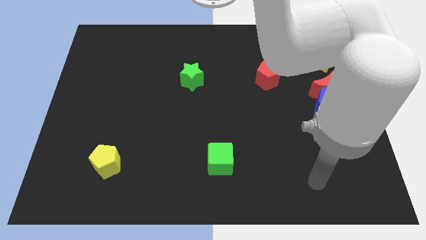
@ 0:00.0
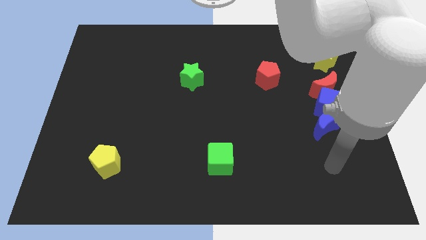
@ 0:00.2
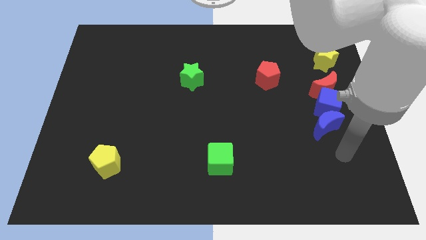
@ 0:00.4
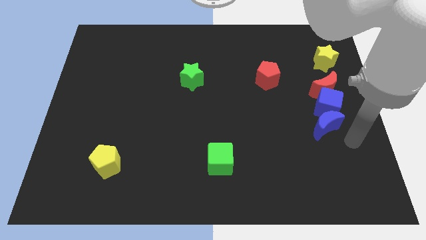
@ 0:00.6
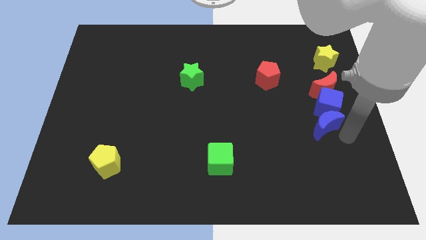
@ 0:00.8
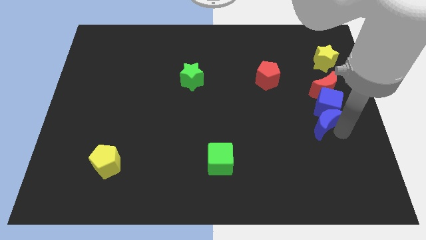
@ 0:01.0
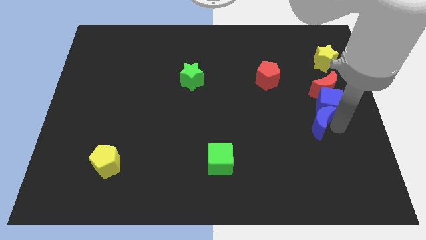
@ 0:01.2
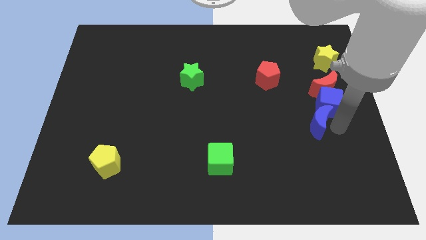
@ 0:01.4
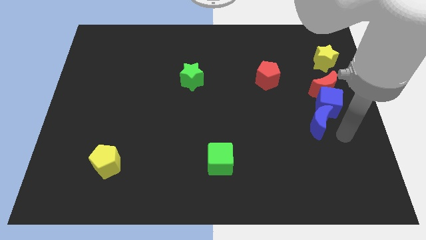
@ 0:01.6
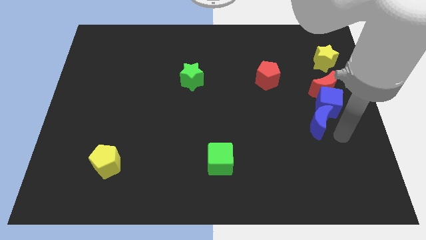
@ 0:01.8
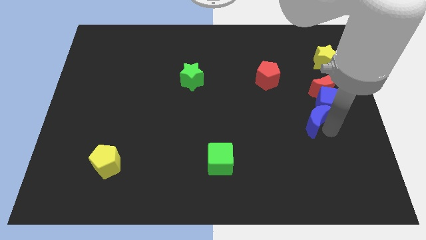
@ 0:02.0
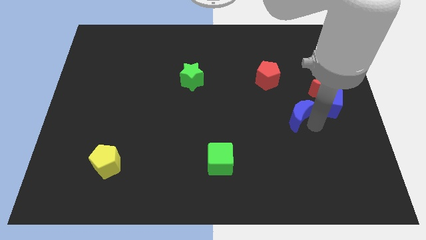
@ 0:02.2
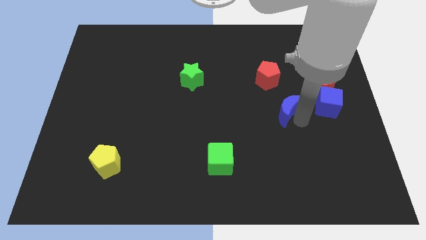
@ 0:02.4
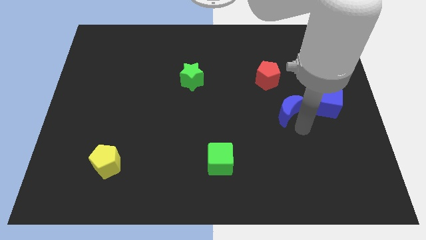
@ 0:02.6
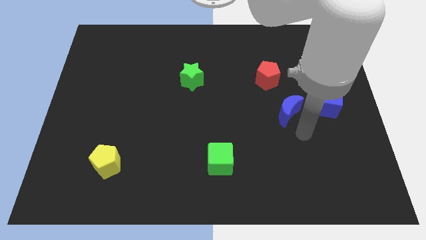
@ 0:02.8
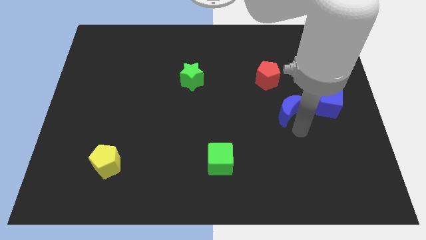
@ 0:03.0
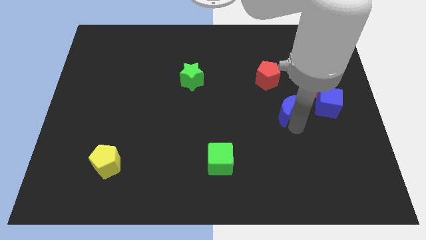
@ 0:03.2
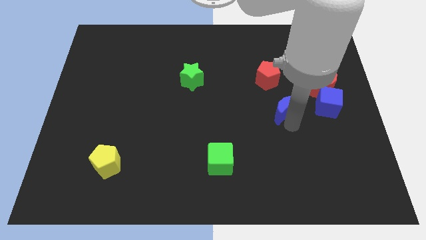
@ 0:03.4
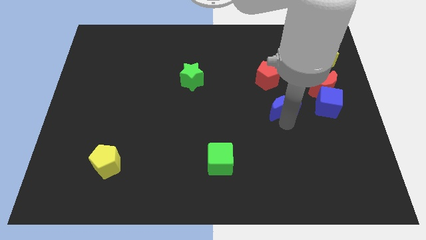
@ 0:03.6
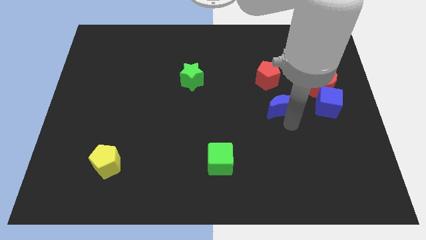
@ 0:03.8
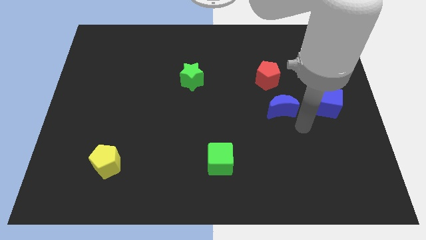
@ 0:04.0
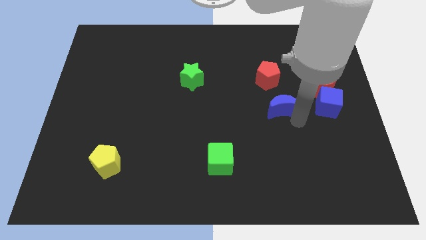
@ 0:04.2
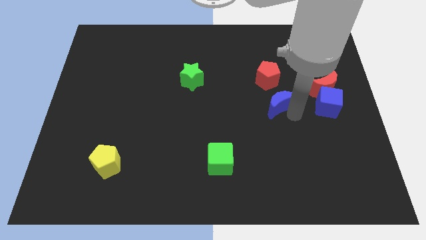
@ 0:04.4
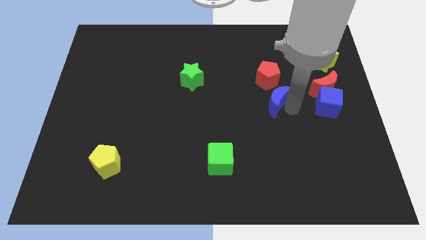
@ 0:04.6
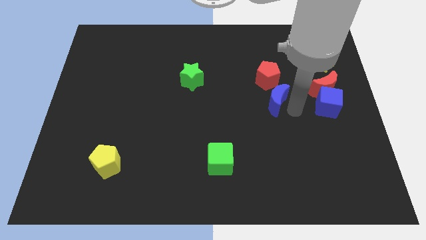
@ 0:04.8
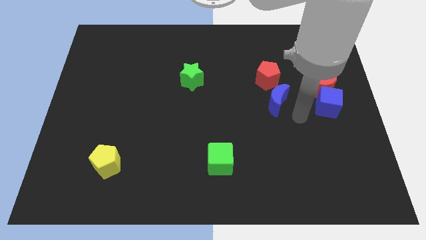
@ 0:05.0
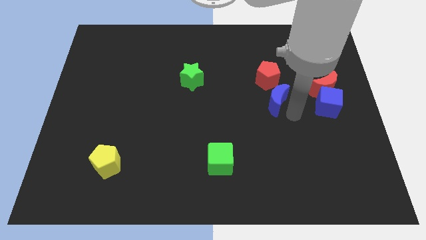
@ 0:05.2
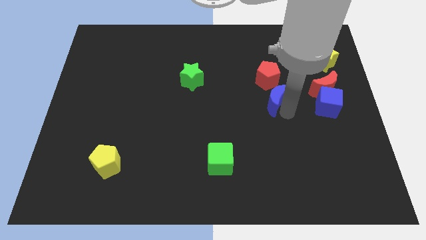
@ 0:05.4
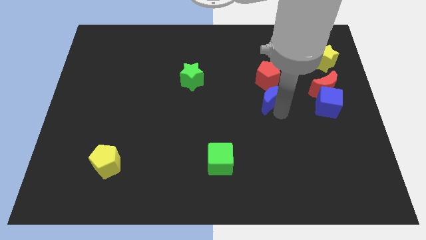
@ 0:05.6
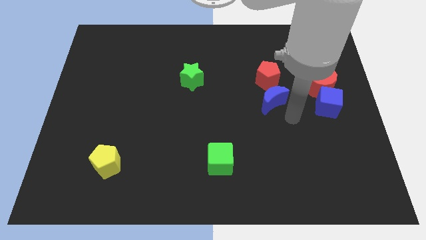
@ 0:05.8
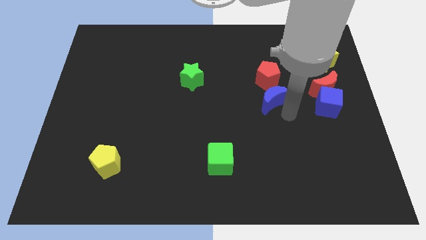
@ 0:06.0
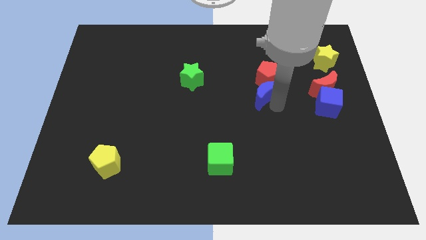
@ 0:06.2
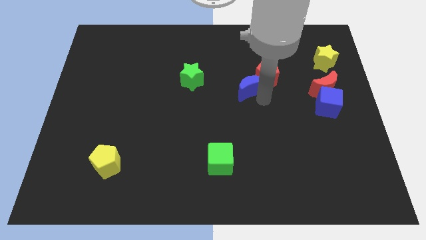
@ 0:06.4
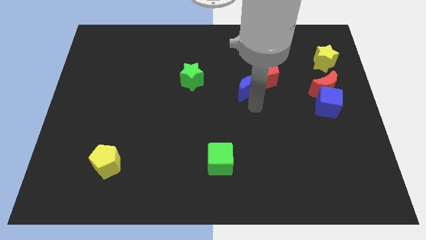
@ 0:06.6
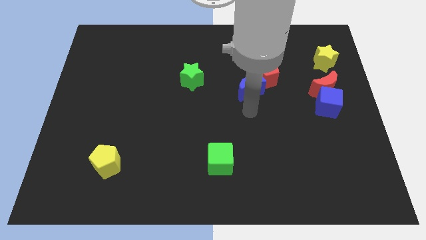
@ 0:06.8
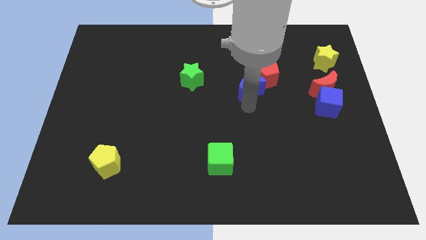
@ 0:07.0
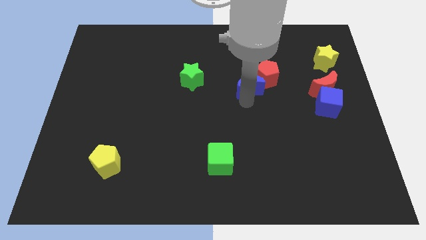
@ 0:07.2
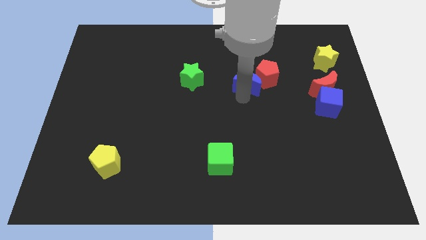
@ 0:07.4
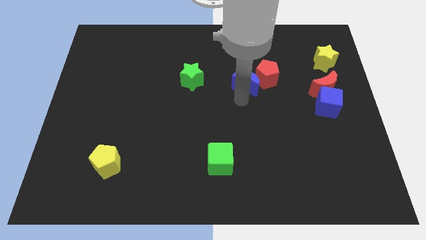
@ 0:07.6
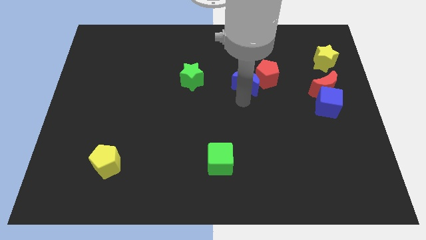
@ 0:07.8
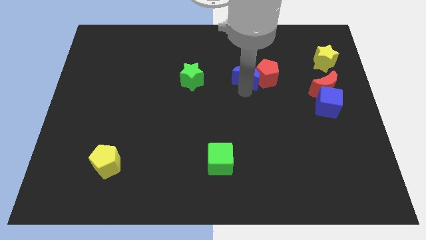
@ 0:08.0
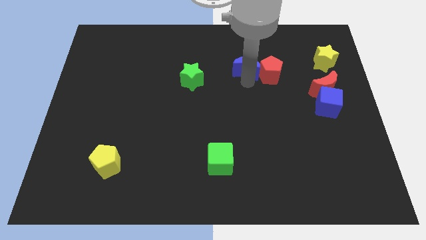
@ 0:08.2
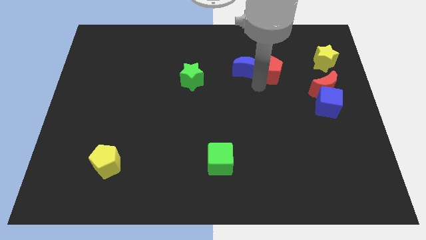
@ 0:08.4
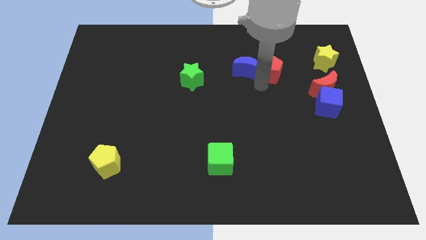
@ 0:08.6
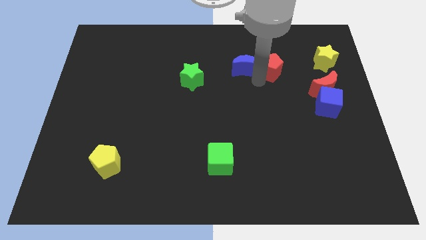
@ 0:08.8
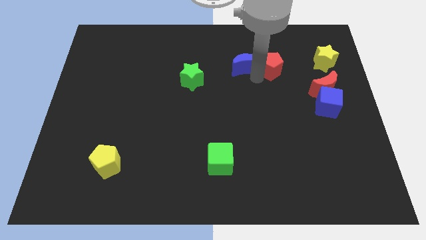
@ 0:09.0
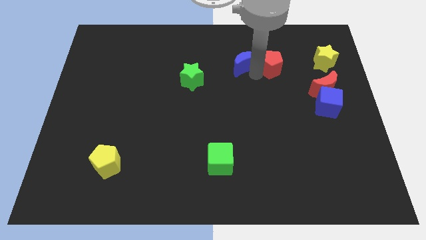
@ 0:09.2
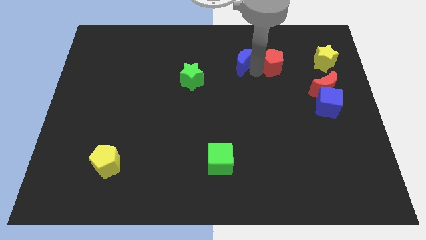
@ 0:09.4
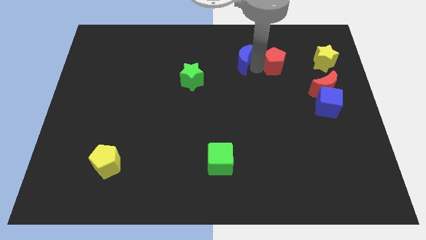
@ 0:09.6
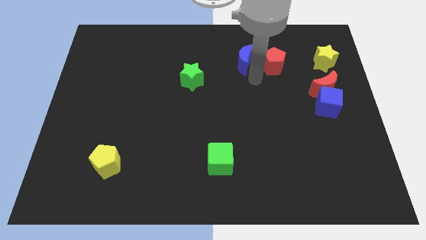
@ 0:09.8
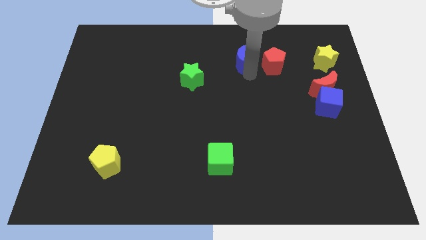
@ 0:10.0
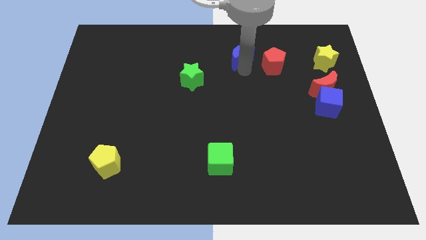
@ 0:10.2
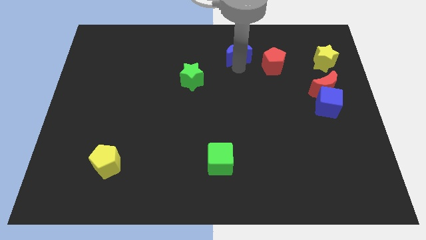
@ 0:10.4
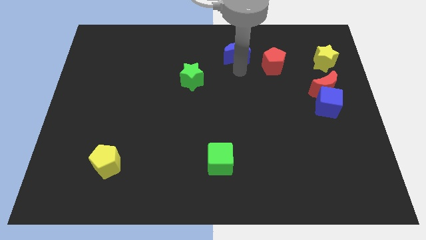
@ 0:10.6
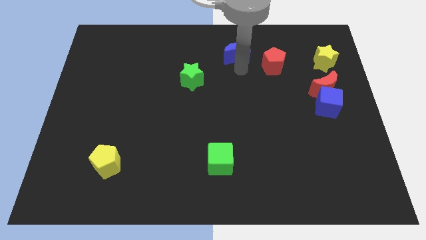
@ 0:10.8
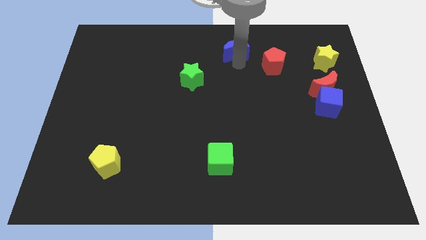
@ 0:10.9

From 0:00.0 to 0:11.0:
push the blue moon to the top side
